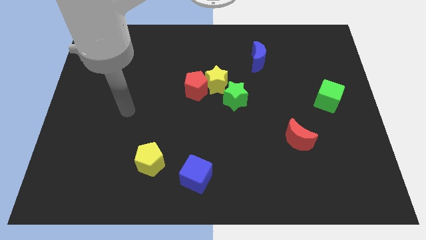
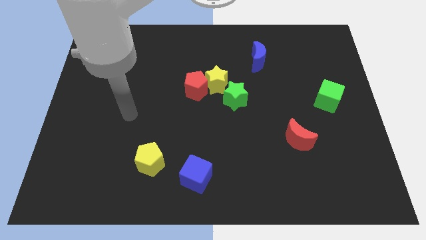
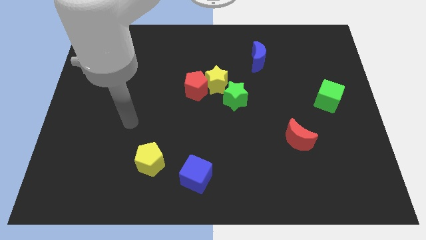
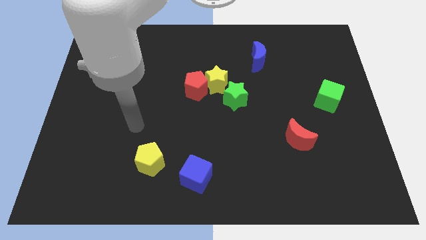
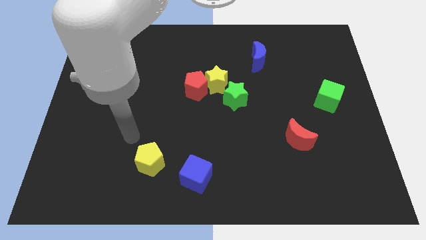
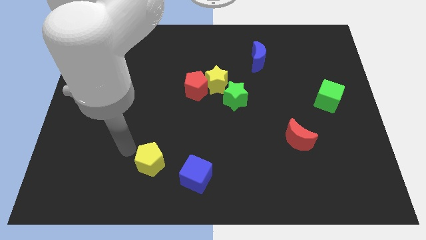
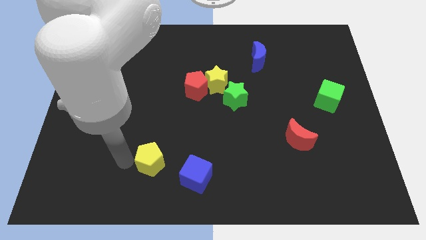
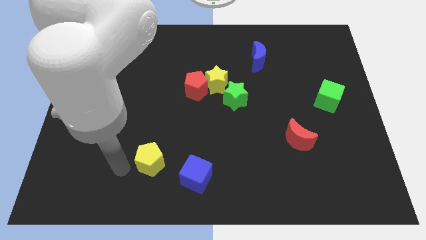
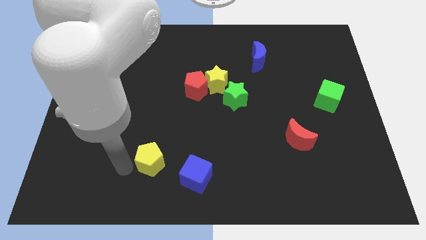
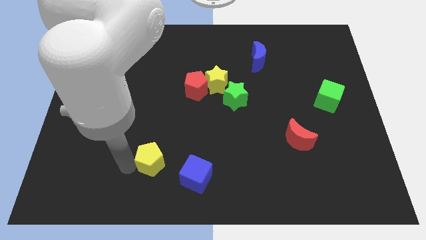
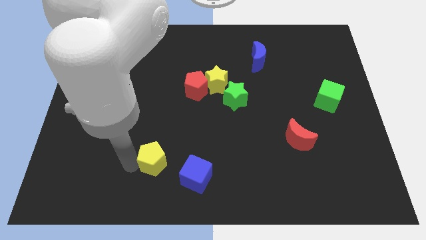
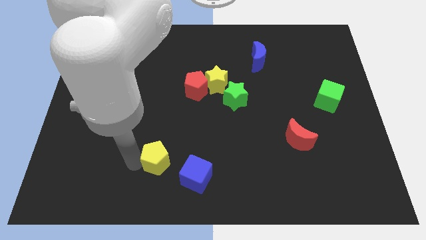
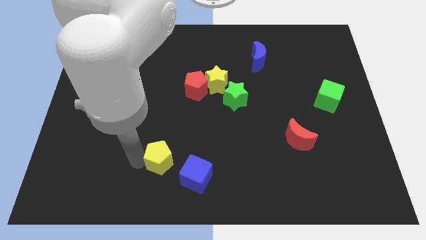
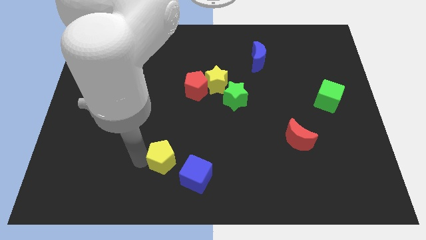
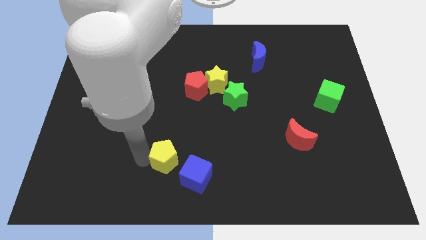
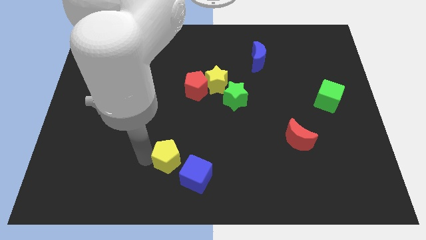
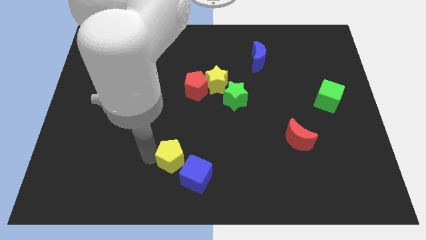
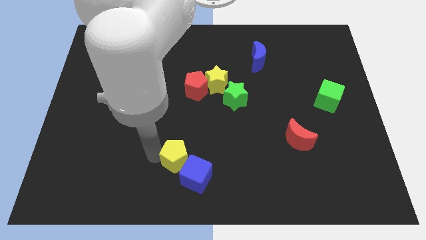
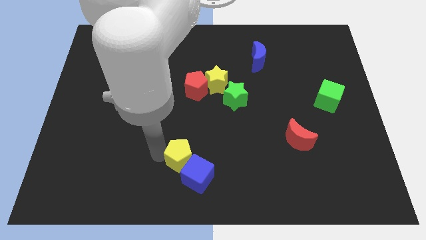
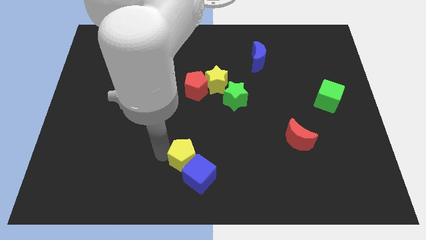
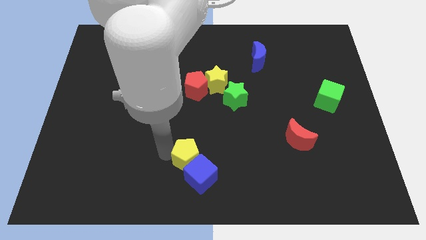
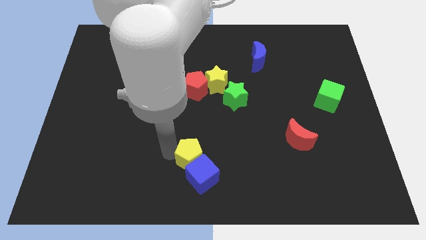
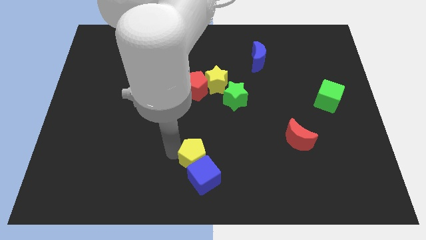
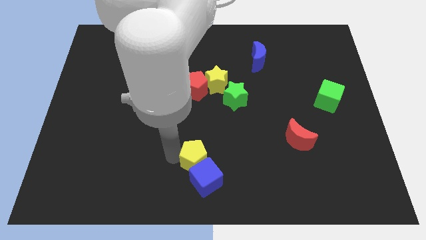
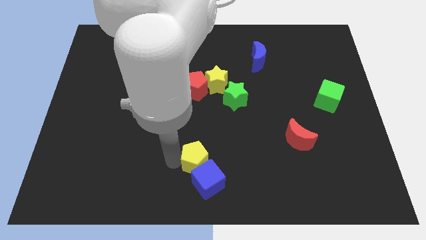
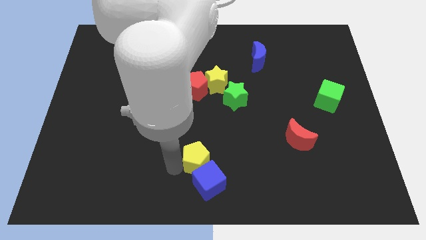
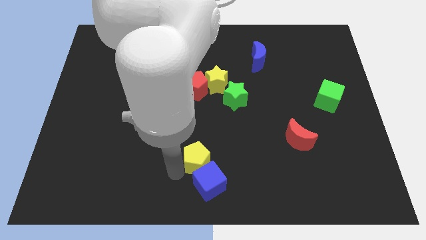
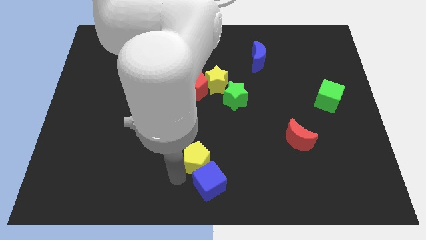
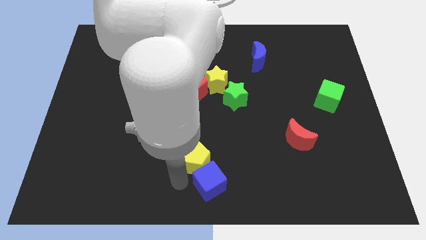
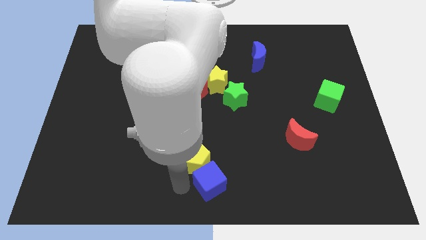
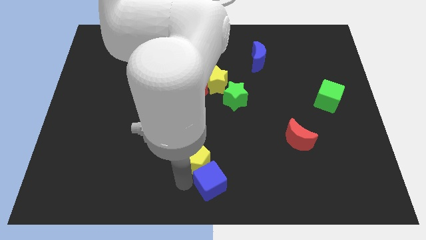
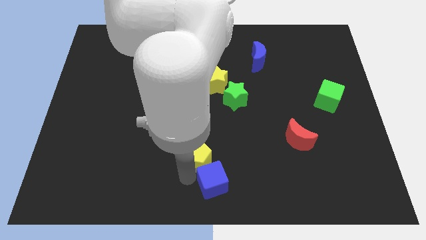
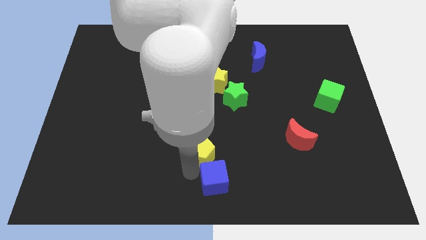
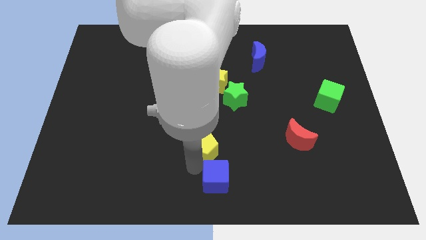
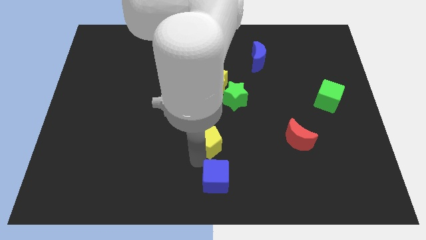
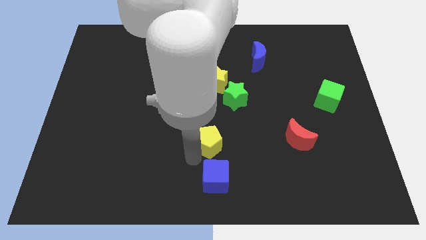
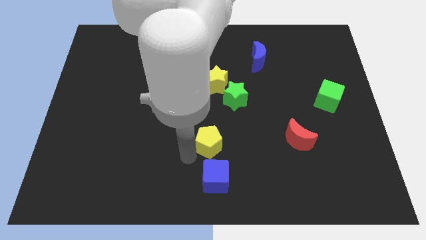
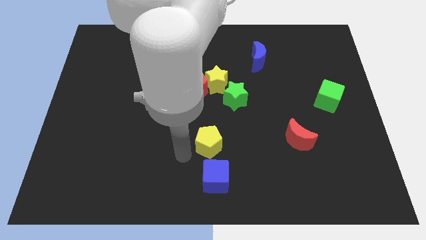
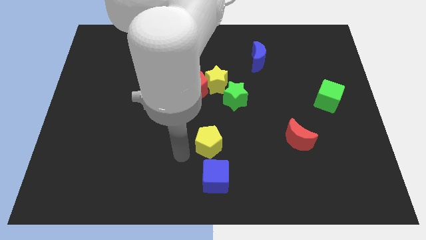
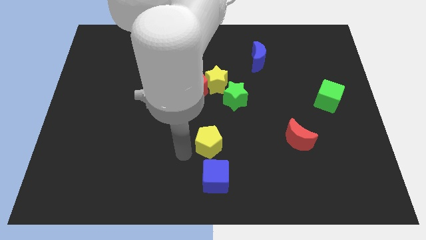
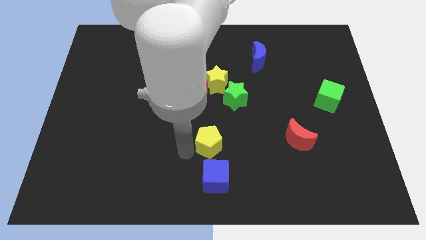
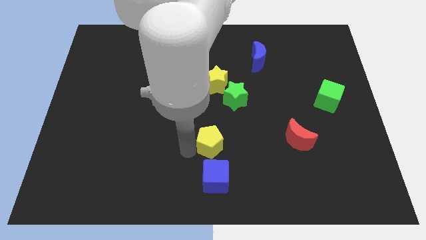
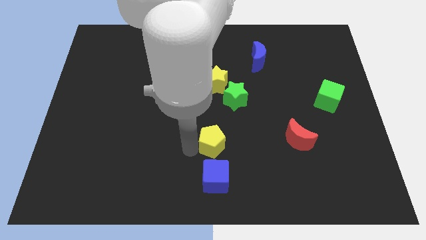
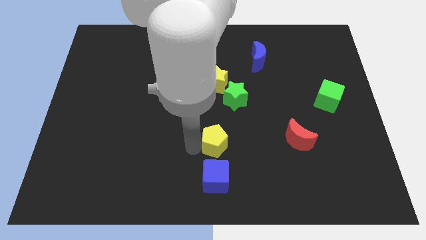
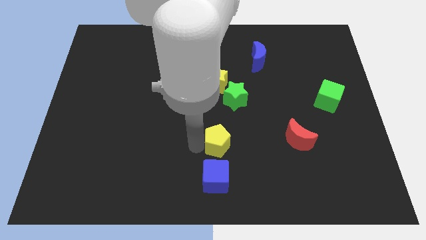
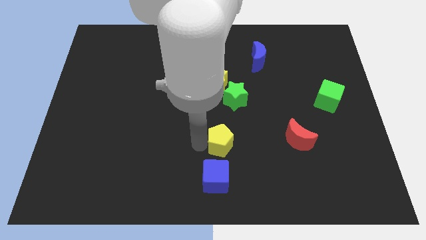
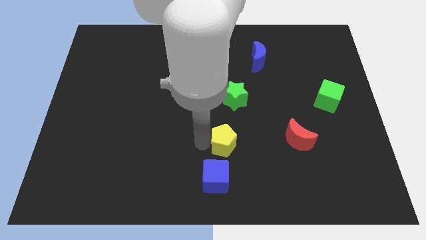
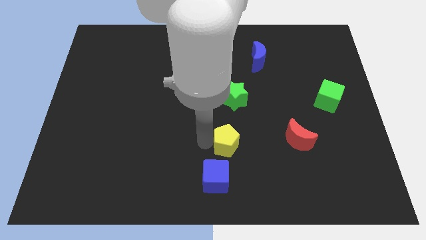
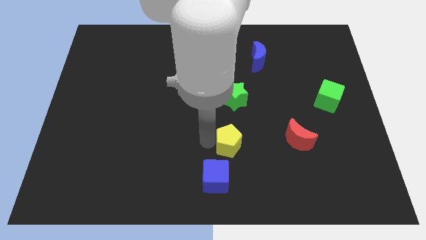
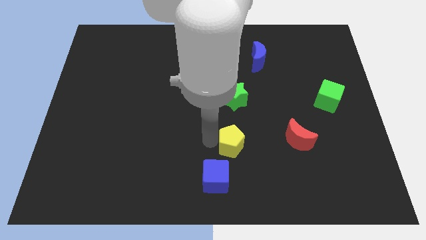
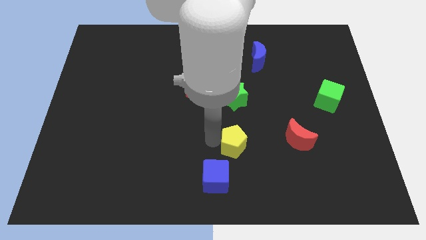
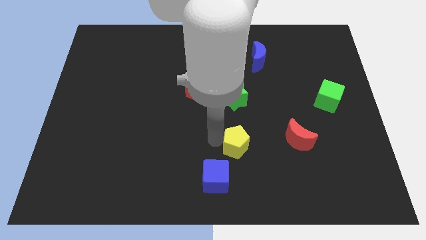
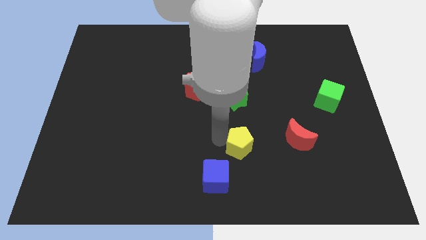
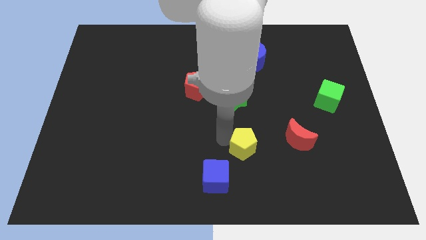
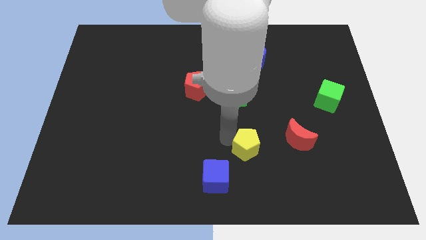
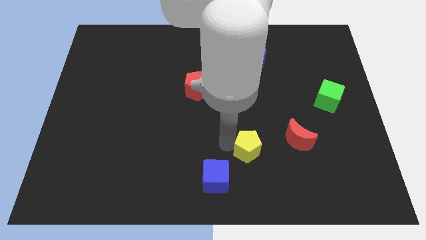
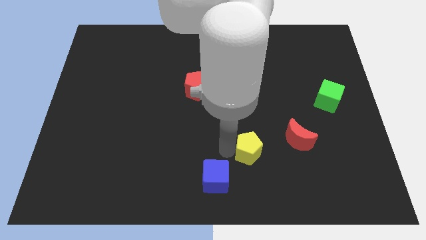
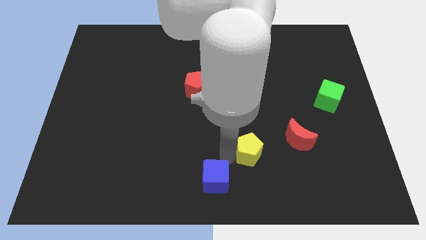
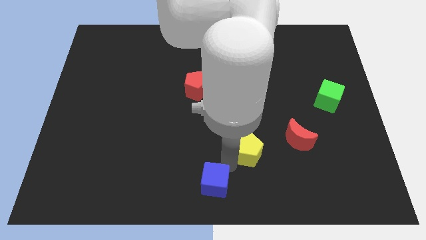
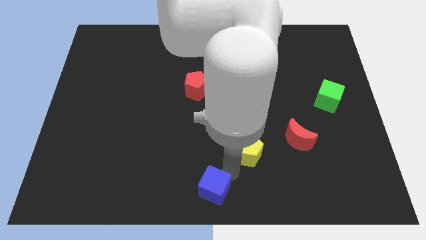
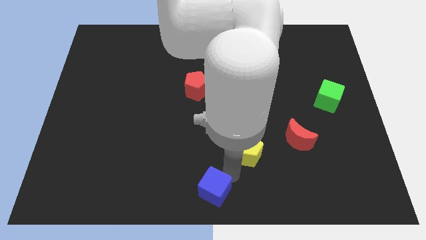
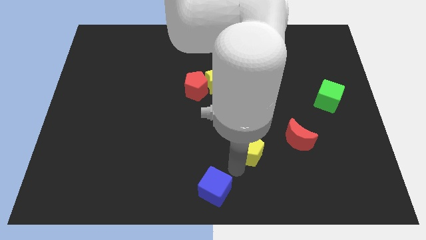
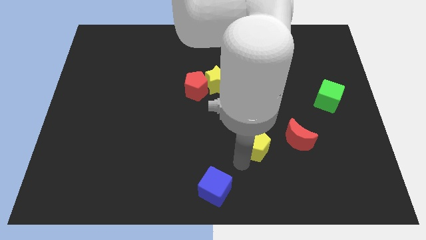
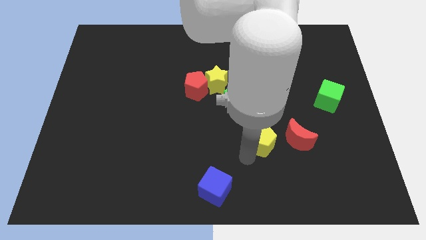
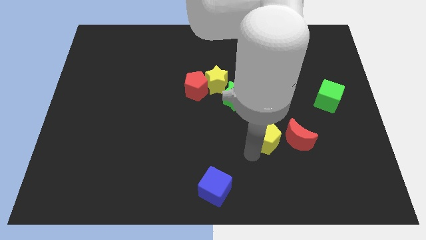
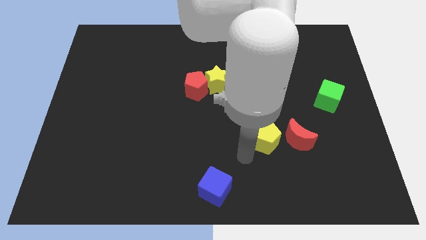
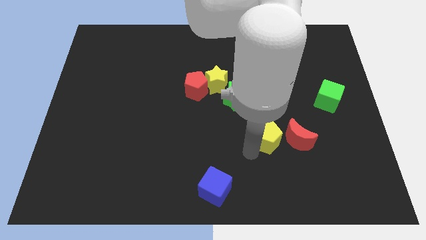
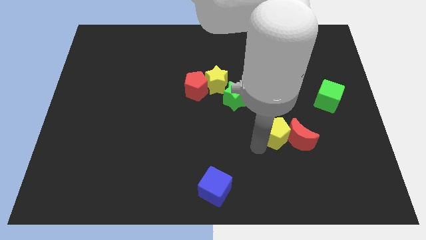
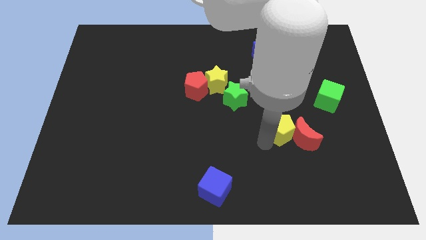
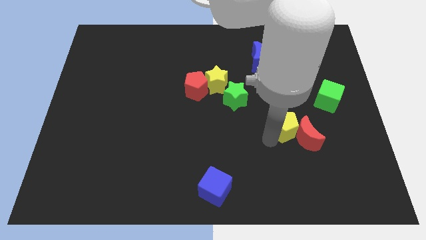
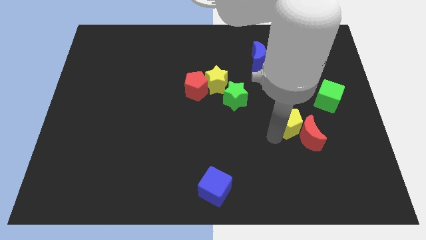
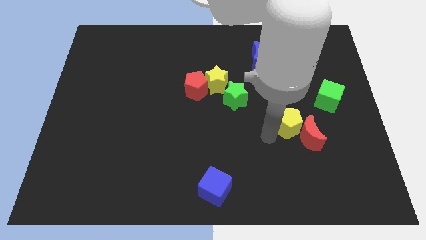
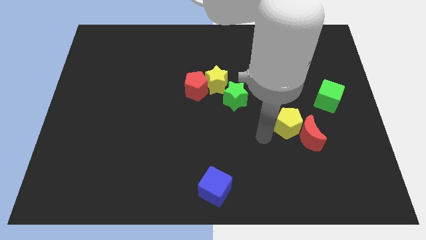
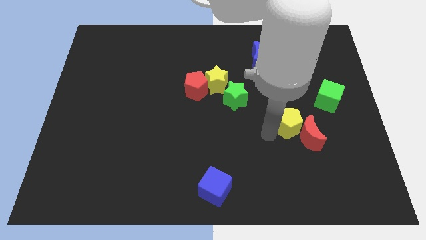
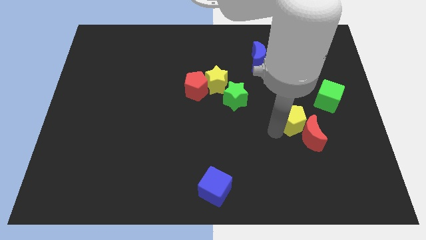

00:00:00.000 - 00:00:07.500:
put the yellow pentagon to the bottom left side of the green cube
